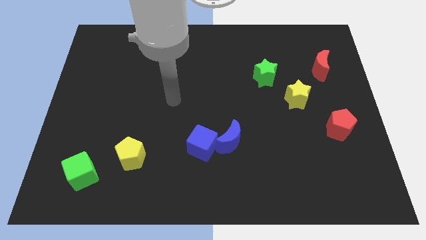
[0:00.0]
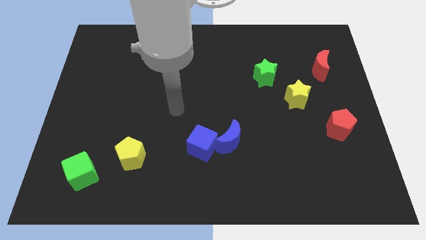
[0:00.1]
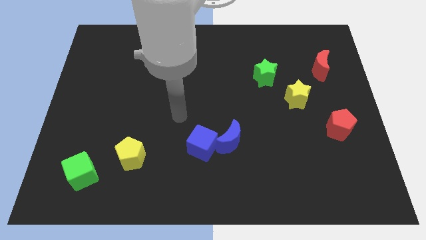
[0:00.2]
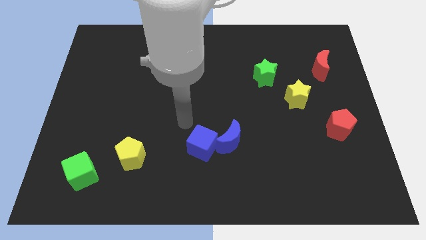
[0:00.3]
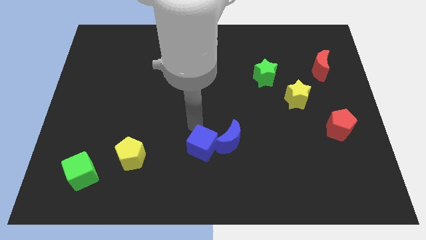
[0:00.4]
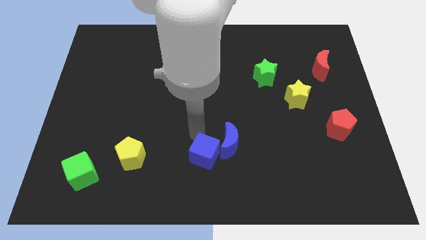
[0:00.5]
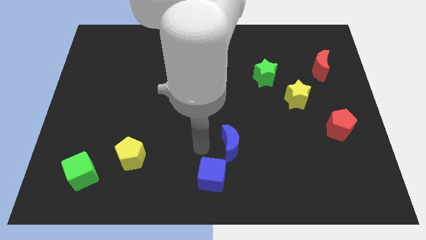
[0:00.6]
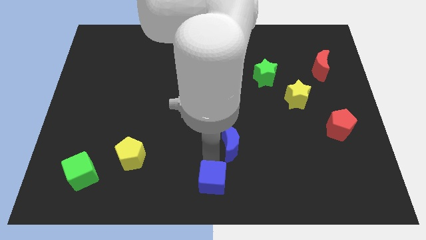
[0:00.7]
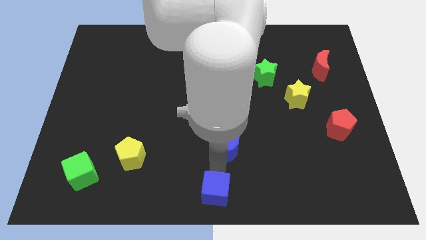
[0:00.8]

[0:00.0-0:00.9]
pull the blue moon apart from the blue cube

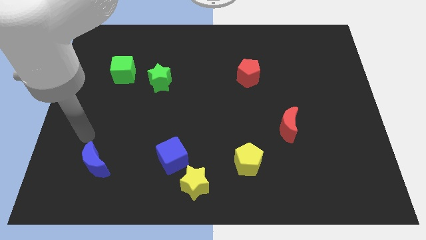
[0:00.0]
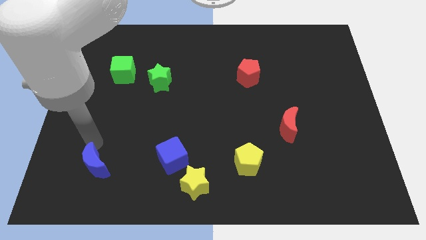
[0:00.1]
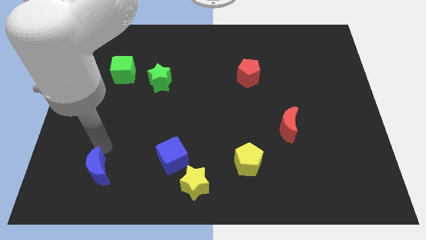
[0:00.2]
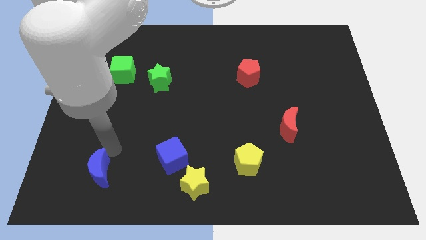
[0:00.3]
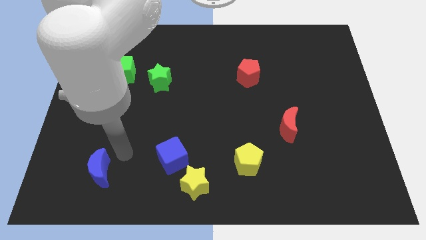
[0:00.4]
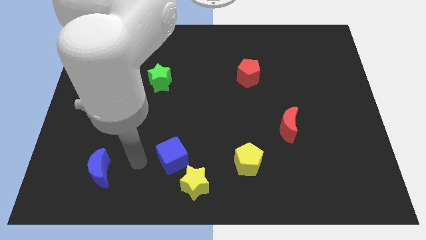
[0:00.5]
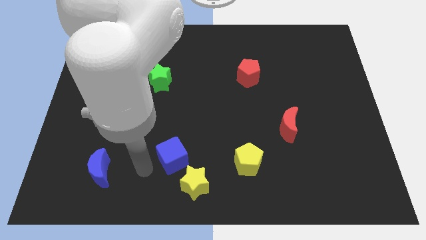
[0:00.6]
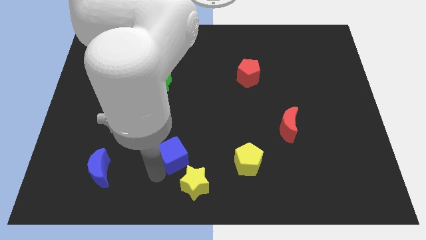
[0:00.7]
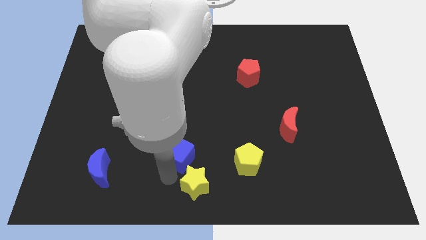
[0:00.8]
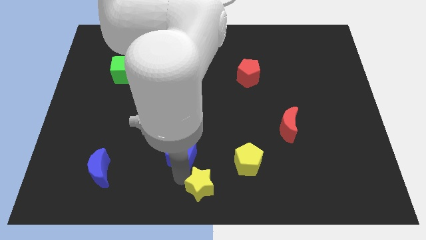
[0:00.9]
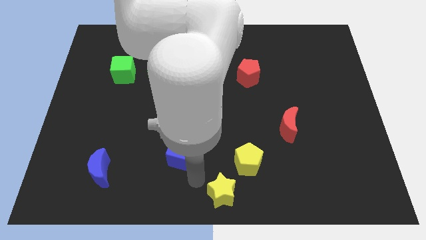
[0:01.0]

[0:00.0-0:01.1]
move the blue cube away from the yellow star

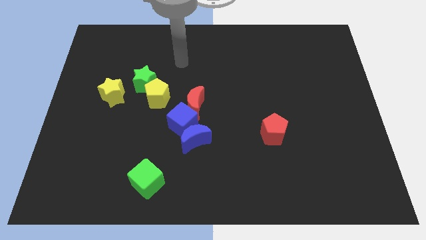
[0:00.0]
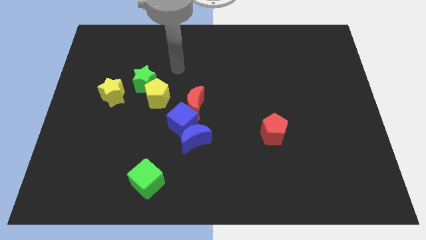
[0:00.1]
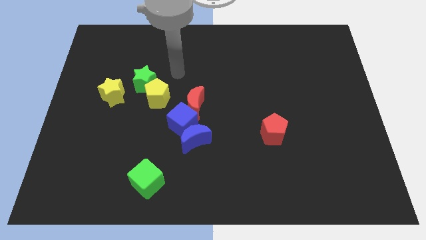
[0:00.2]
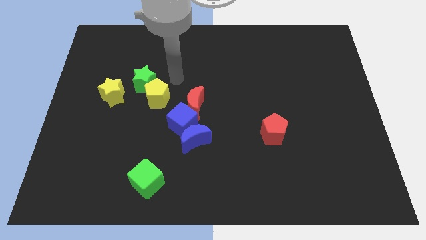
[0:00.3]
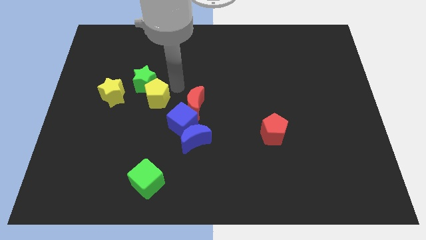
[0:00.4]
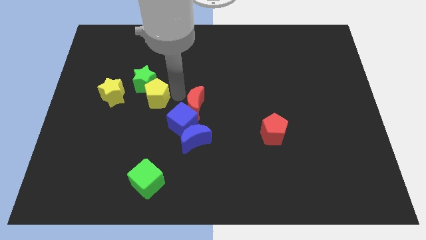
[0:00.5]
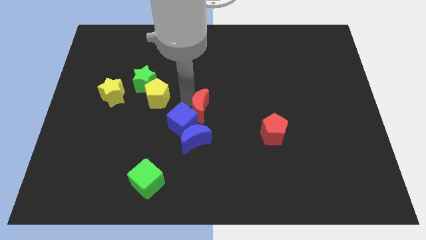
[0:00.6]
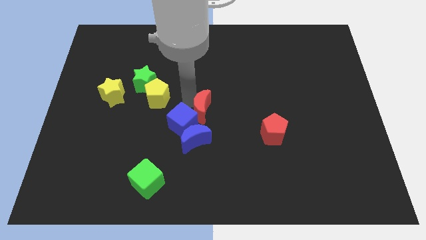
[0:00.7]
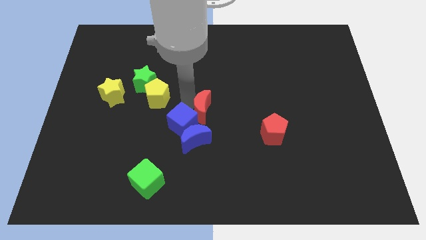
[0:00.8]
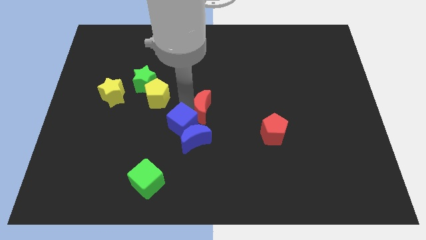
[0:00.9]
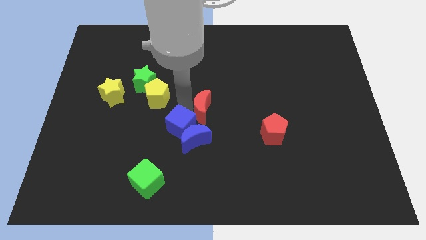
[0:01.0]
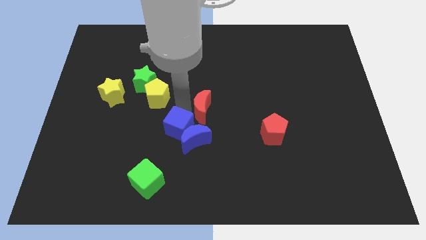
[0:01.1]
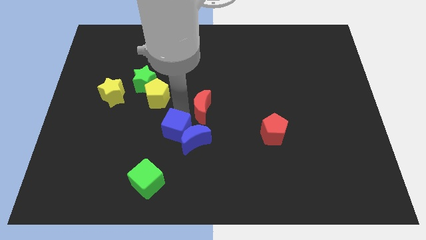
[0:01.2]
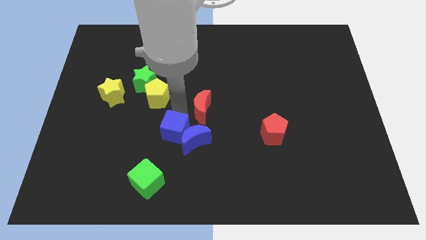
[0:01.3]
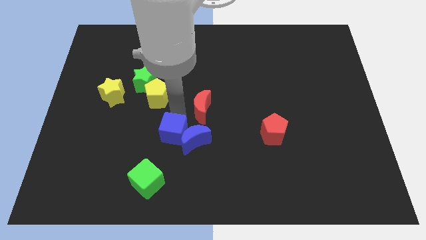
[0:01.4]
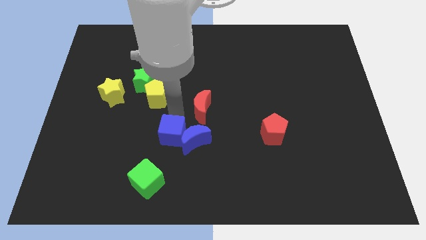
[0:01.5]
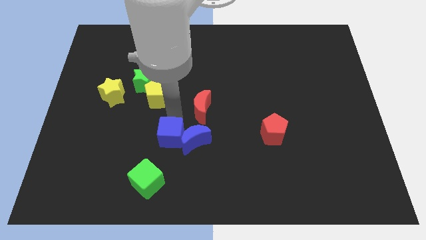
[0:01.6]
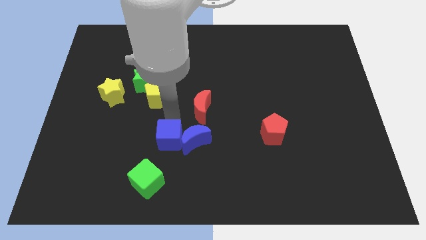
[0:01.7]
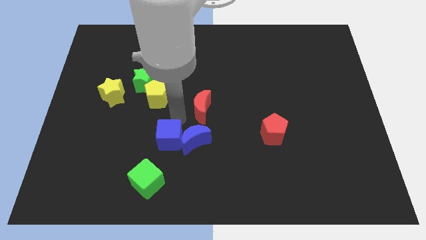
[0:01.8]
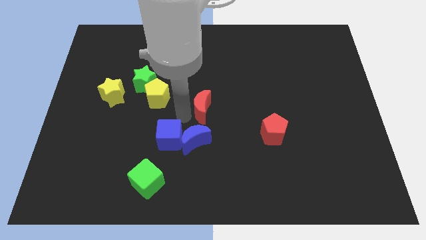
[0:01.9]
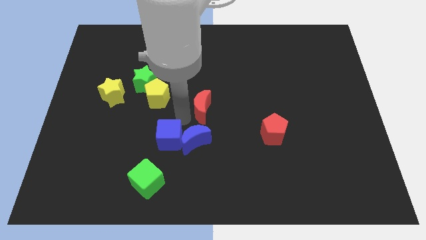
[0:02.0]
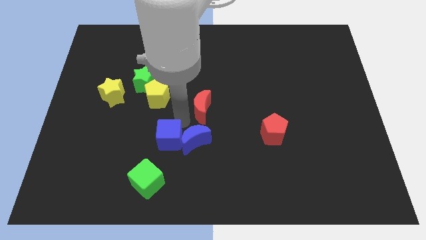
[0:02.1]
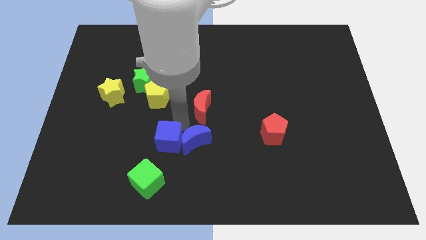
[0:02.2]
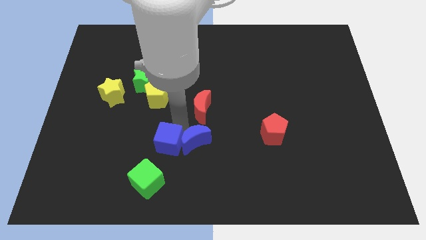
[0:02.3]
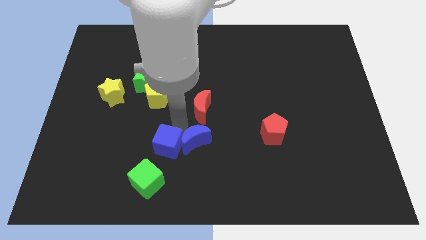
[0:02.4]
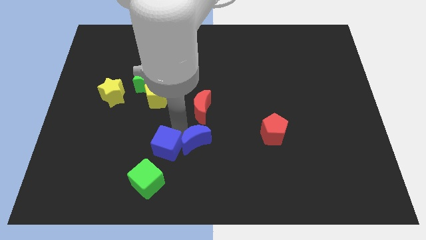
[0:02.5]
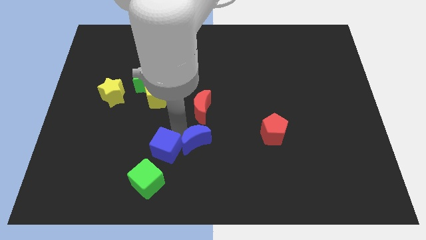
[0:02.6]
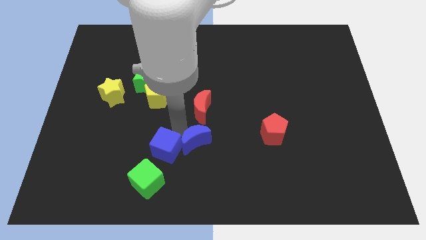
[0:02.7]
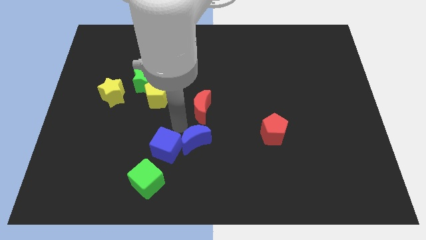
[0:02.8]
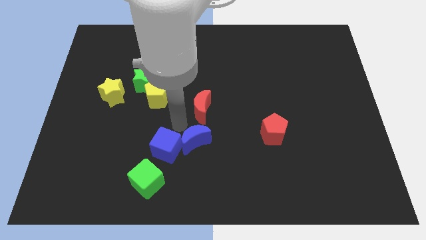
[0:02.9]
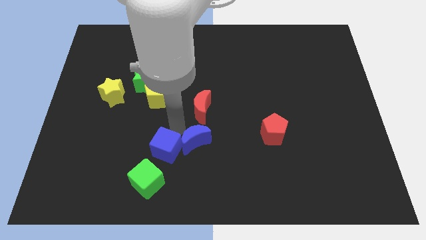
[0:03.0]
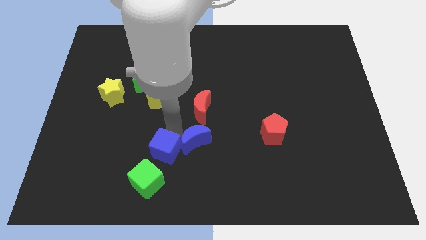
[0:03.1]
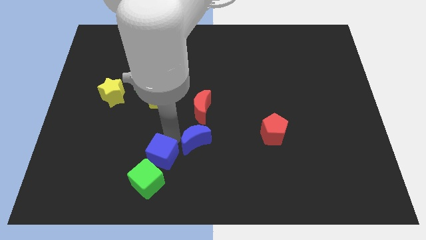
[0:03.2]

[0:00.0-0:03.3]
separate the blue cube from the group

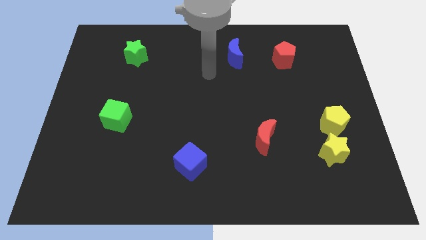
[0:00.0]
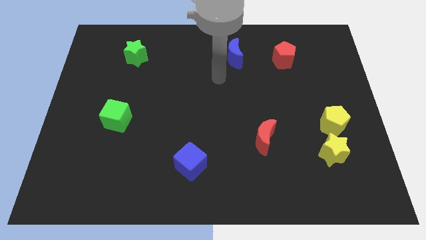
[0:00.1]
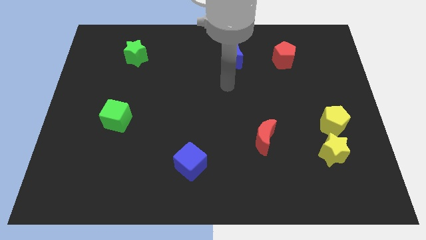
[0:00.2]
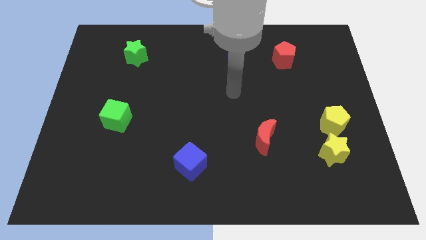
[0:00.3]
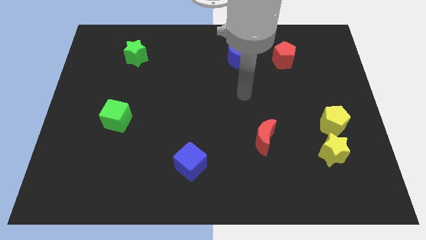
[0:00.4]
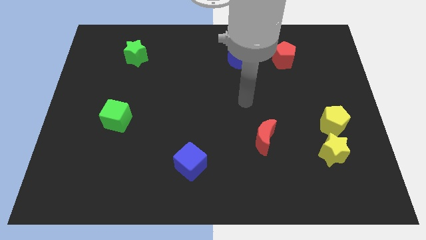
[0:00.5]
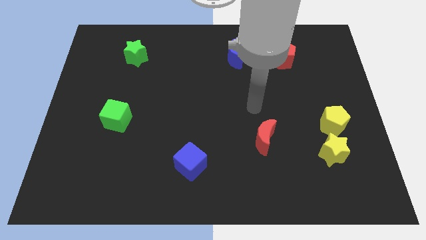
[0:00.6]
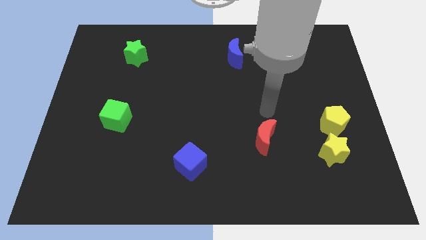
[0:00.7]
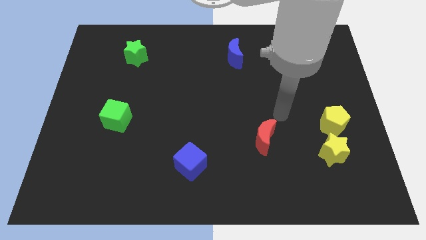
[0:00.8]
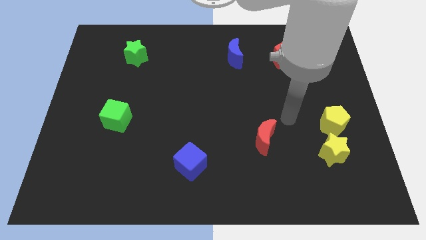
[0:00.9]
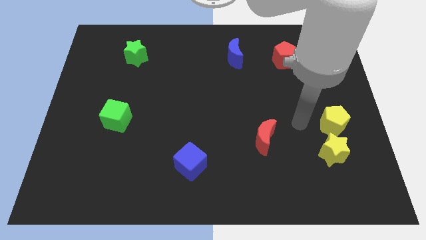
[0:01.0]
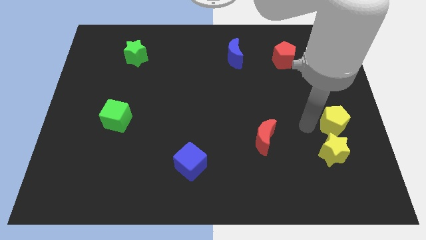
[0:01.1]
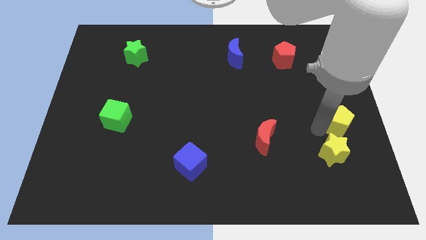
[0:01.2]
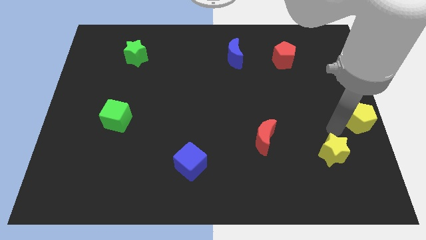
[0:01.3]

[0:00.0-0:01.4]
pull the yellow star apart from the yellow pentagon

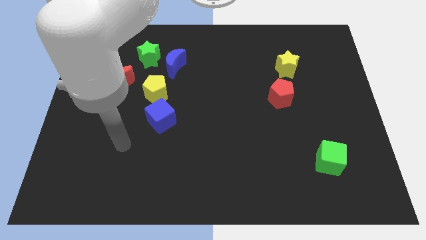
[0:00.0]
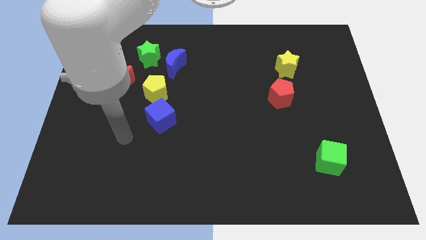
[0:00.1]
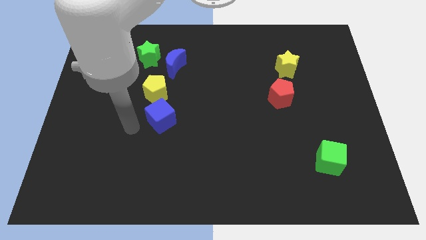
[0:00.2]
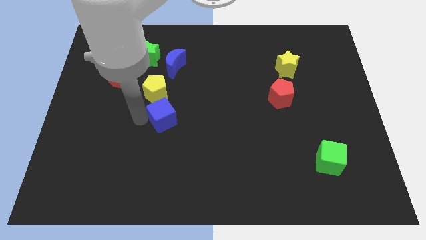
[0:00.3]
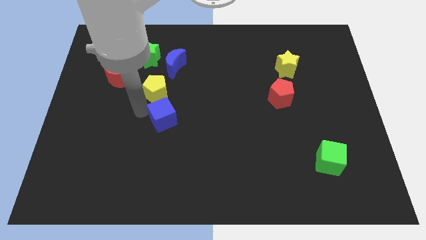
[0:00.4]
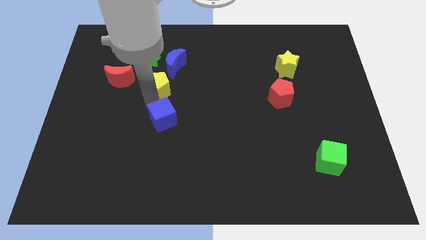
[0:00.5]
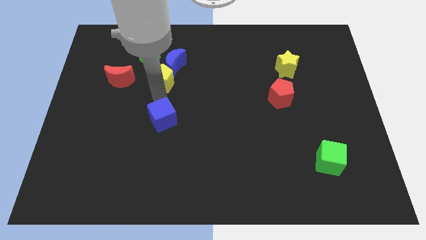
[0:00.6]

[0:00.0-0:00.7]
pull the blue cube apart from the yellow pentagon

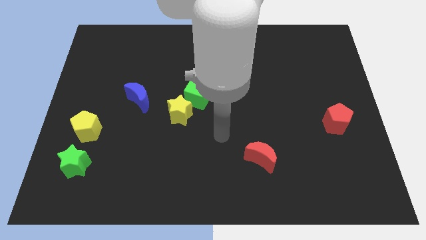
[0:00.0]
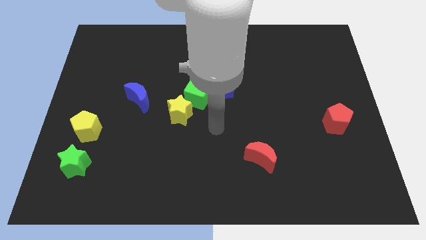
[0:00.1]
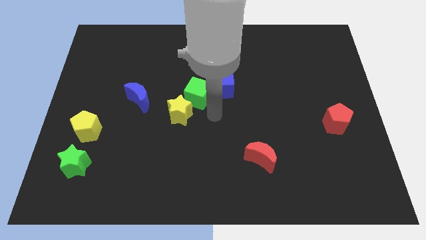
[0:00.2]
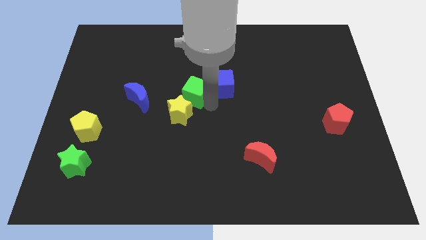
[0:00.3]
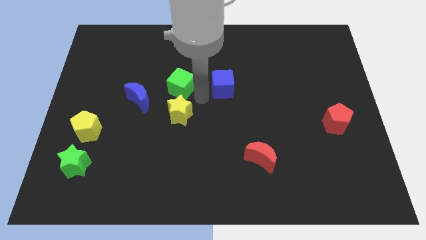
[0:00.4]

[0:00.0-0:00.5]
move the blue cube away from the green cube

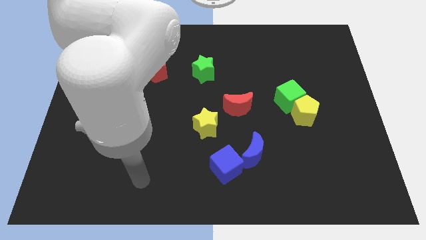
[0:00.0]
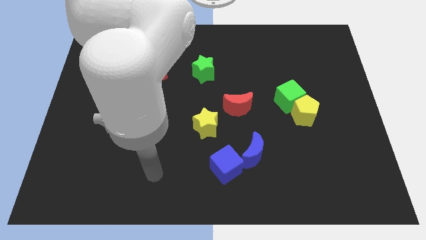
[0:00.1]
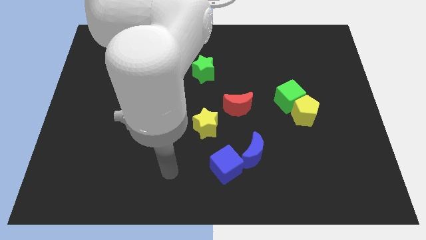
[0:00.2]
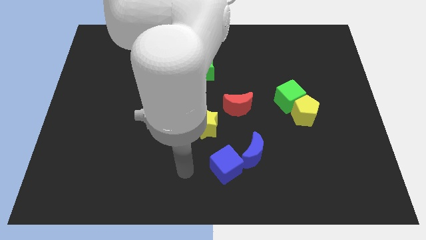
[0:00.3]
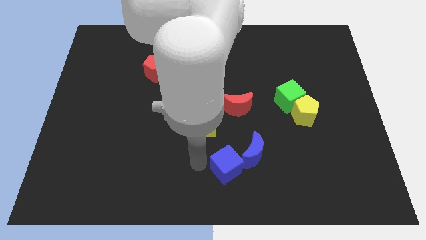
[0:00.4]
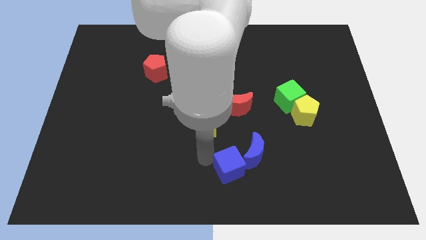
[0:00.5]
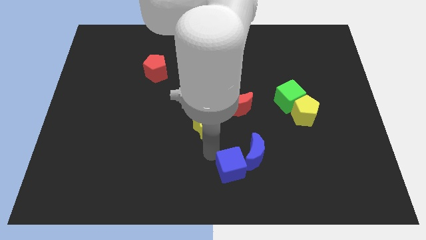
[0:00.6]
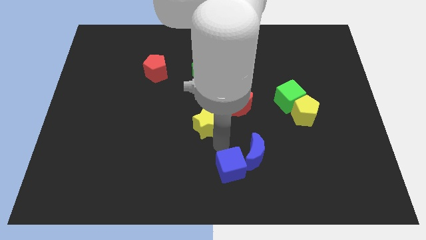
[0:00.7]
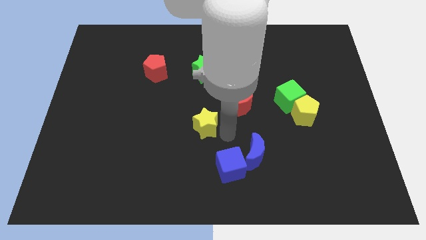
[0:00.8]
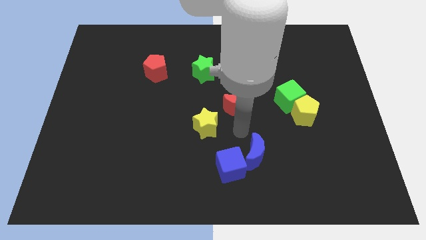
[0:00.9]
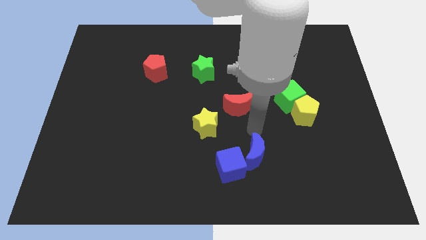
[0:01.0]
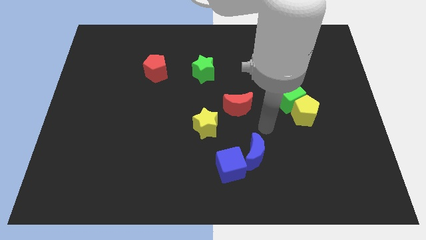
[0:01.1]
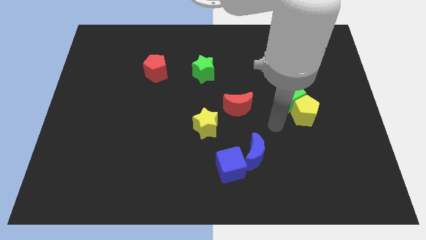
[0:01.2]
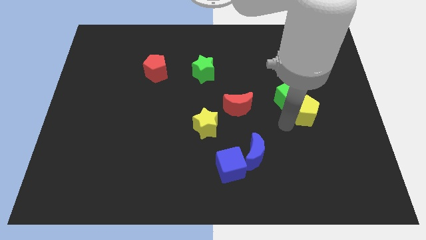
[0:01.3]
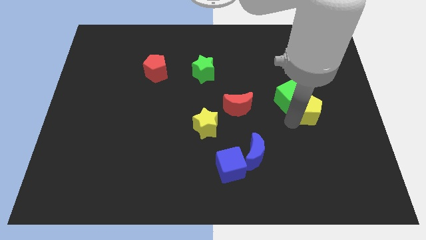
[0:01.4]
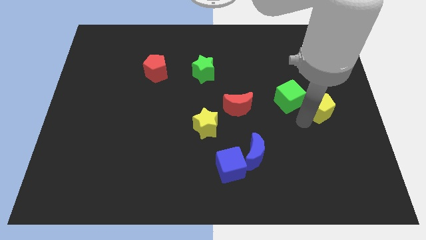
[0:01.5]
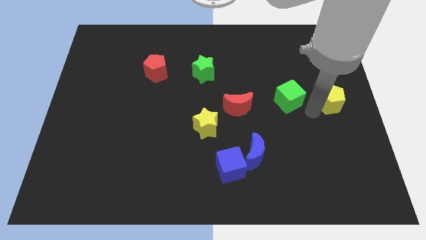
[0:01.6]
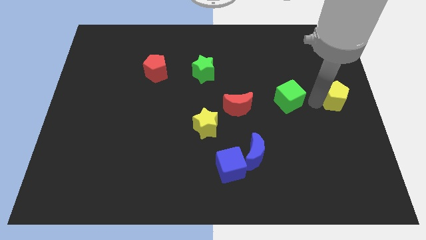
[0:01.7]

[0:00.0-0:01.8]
pull the green cube apart from the yellow pentagon
